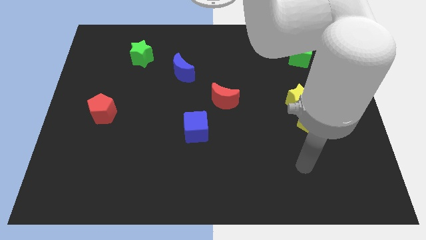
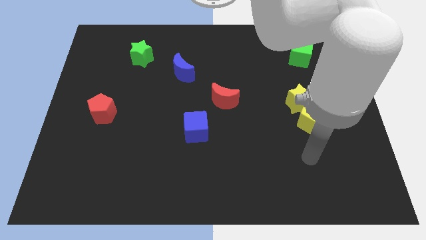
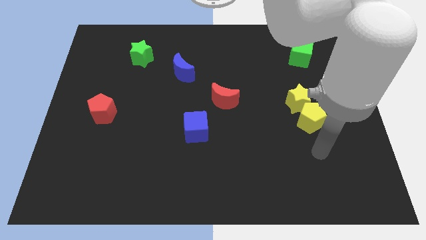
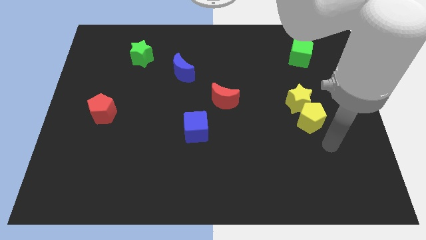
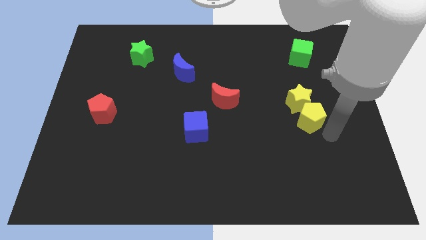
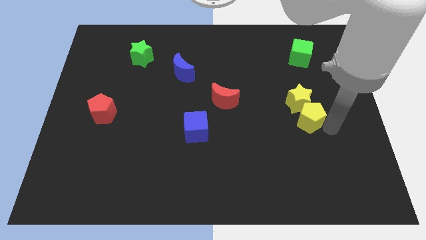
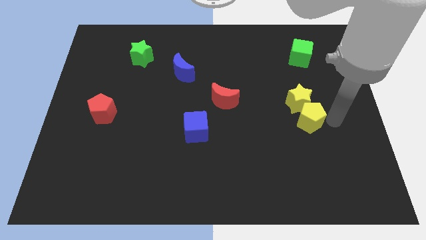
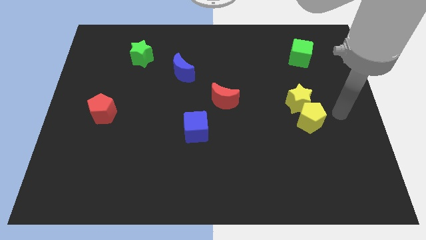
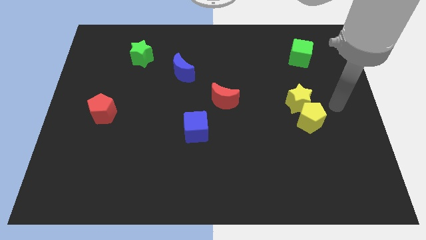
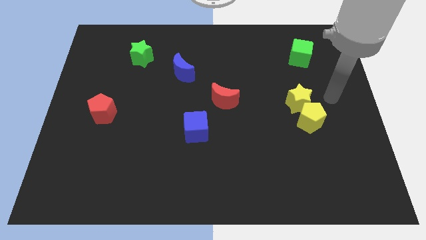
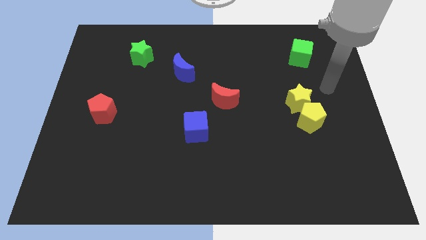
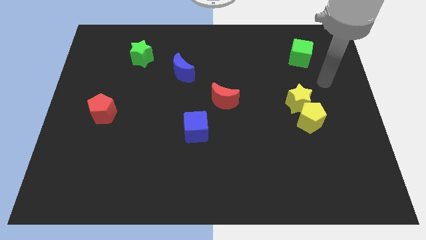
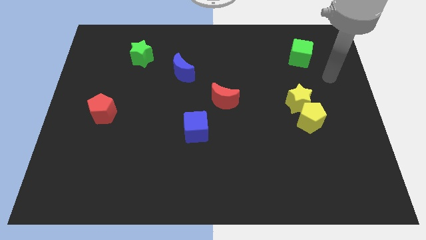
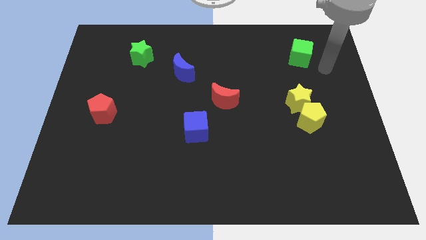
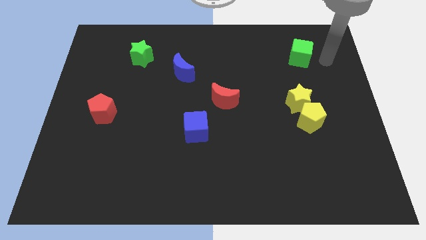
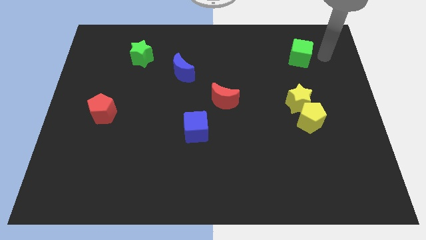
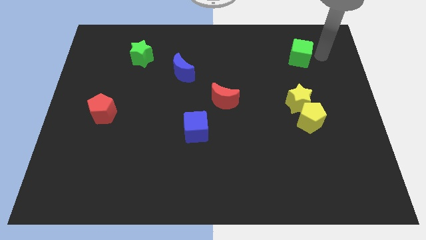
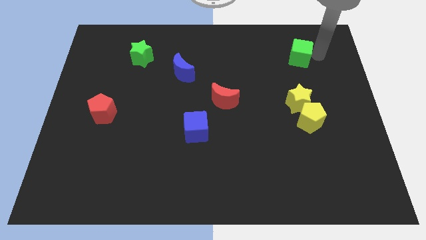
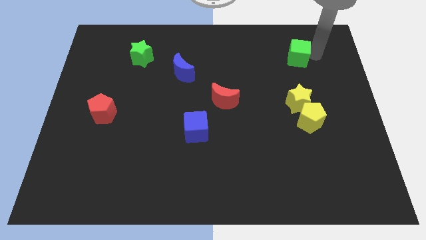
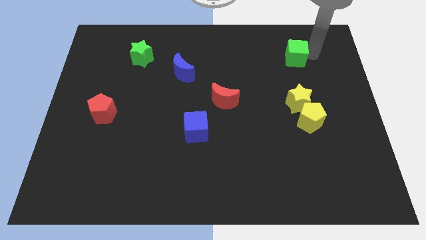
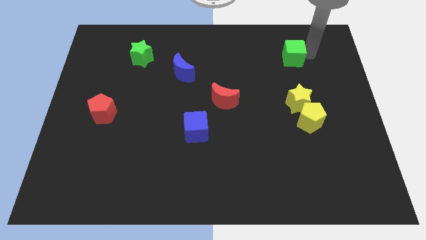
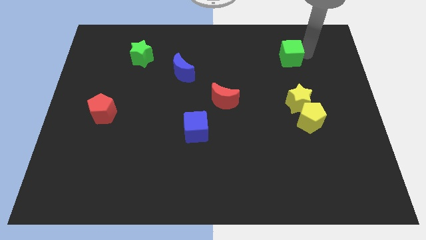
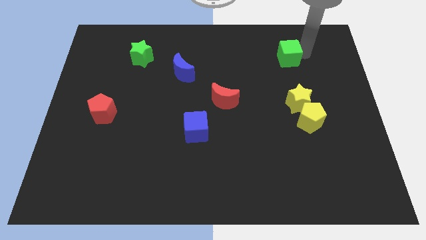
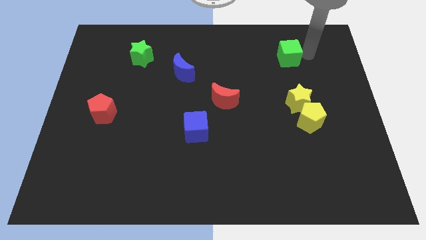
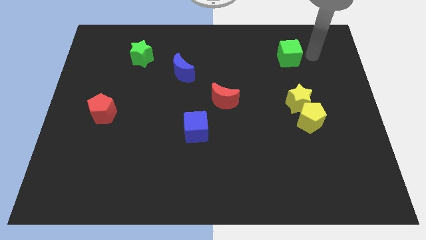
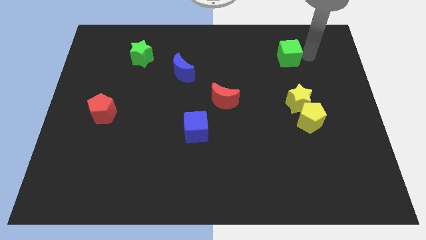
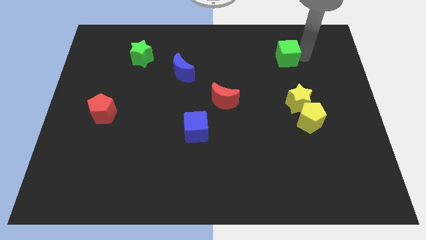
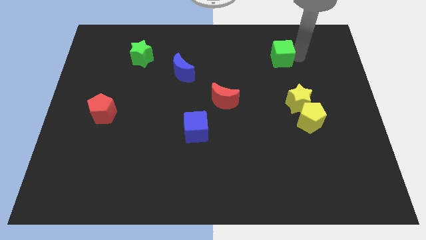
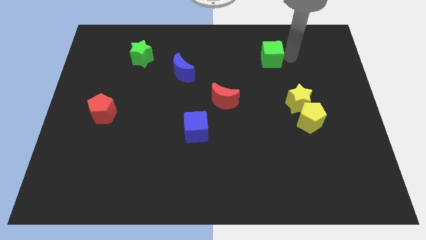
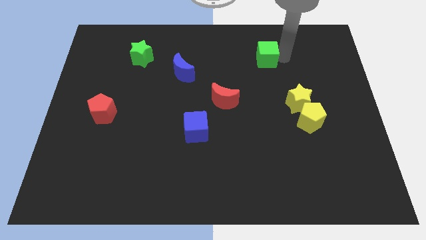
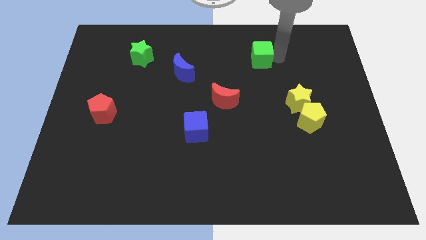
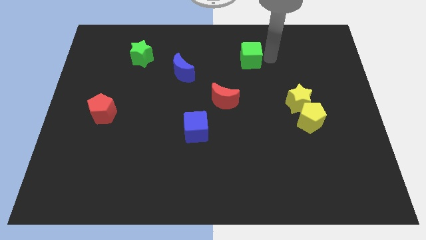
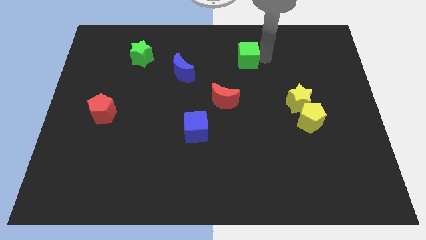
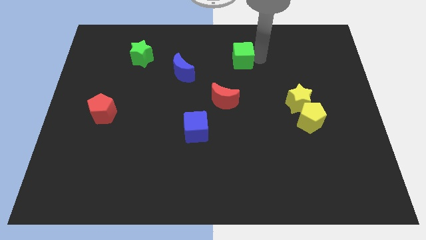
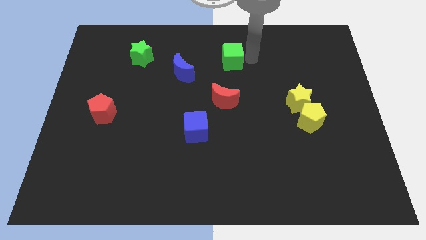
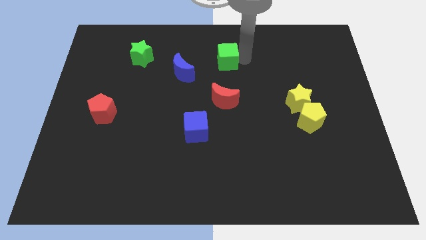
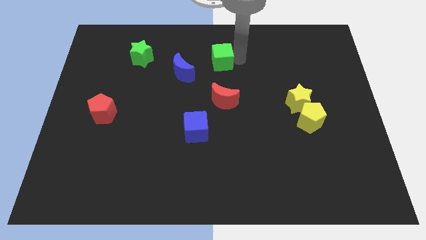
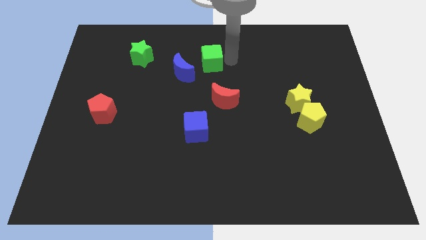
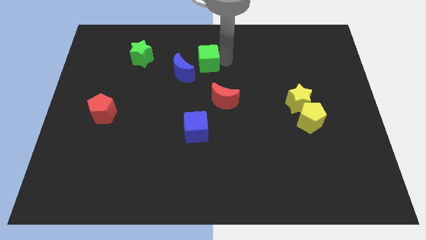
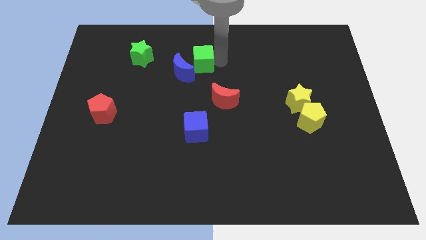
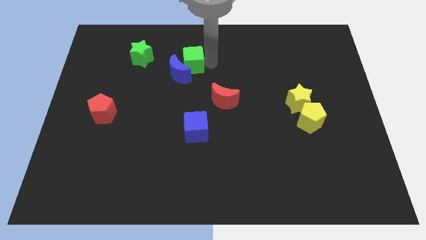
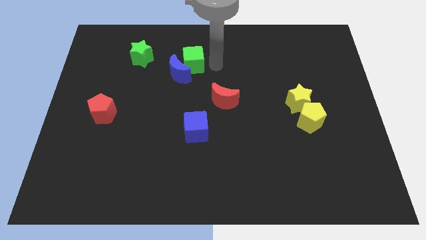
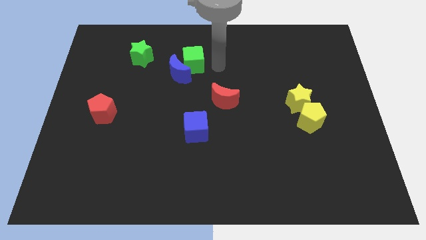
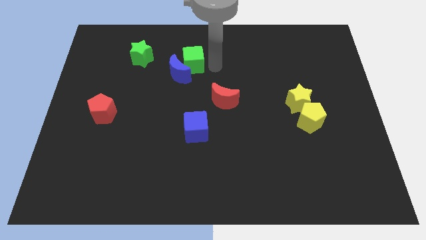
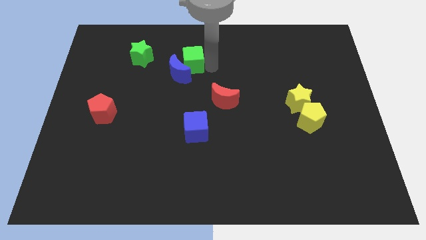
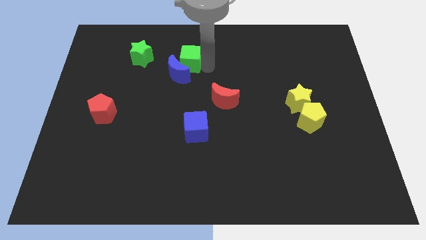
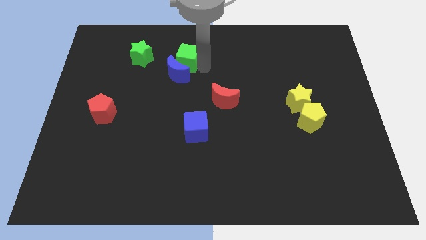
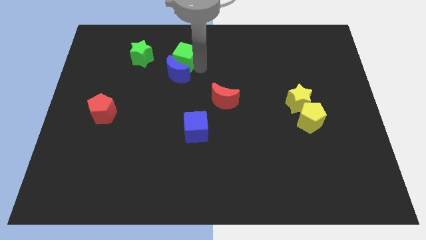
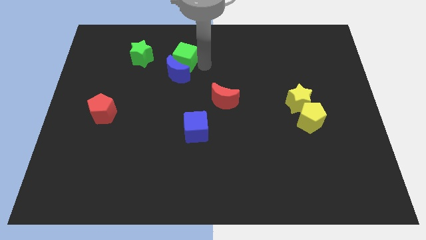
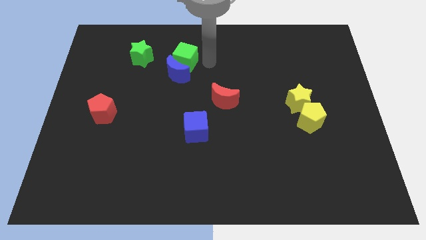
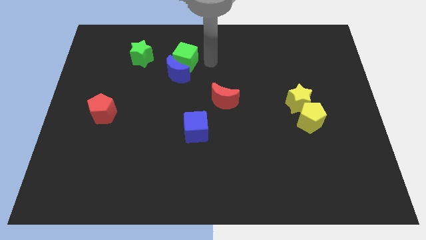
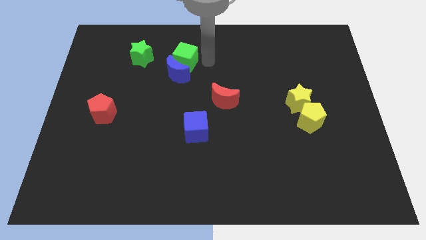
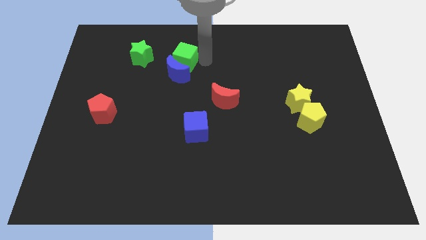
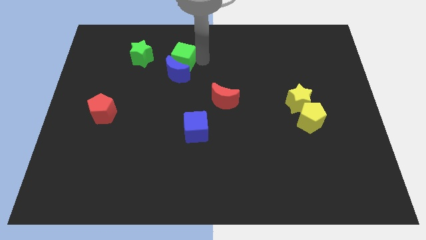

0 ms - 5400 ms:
move the green cube to the top left of the blue moon

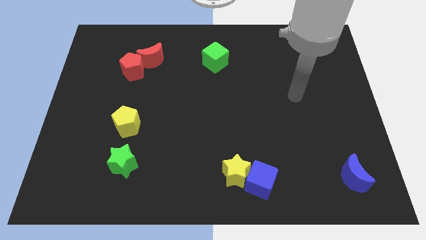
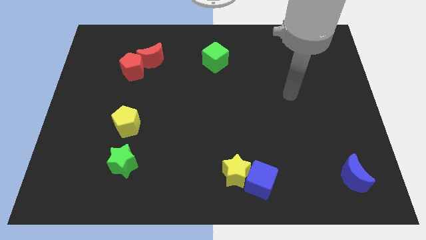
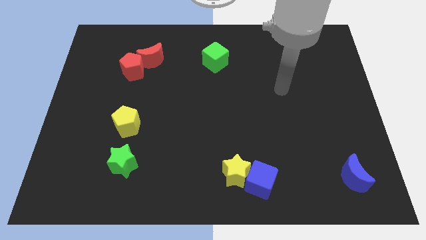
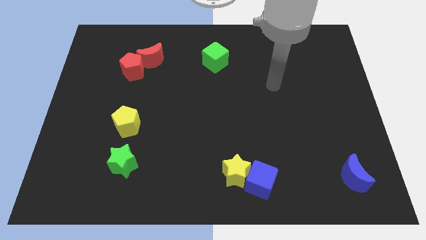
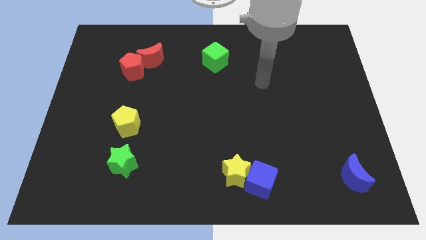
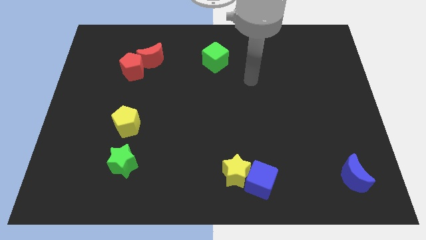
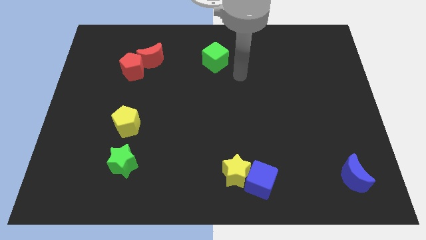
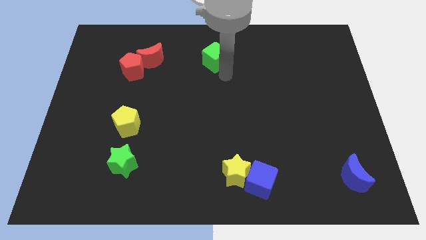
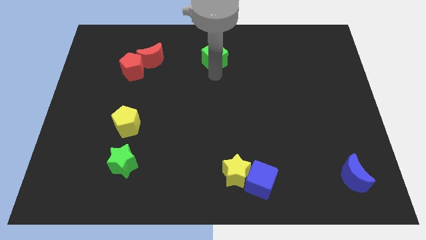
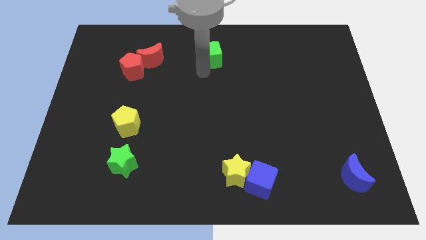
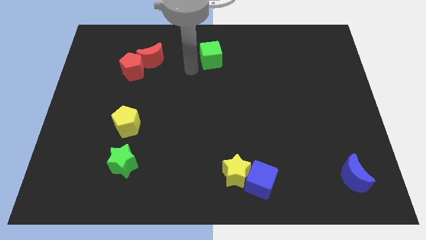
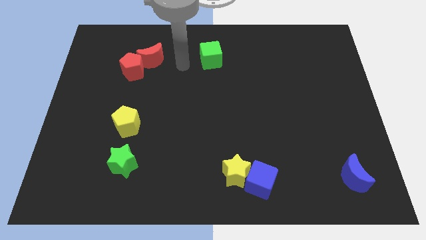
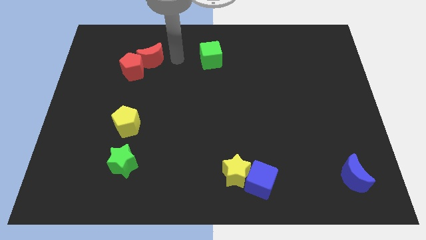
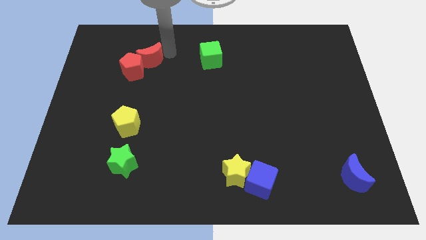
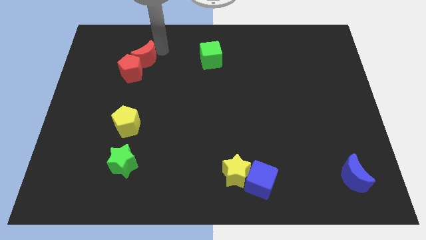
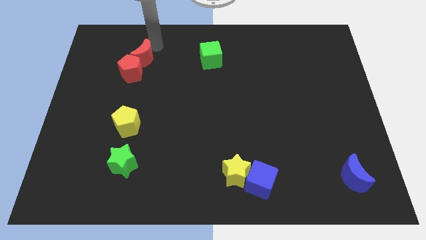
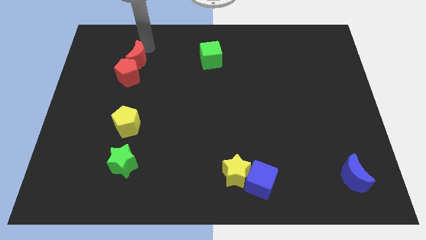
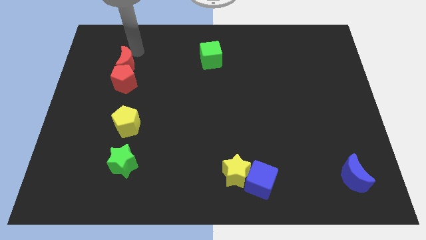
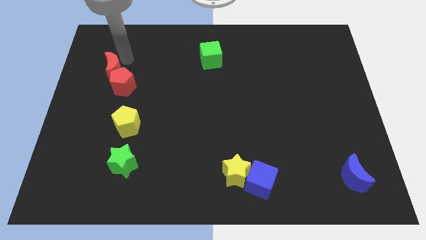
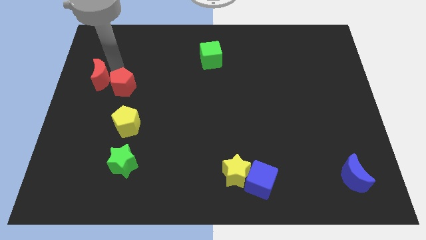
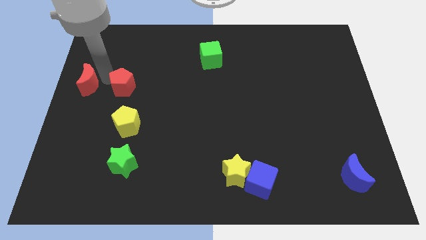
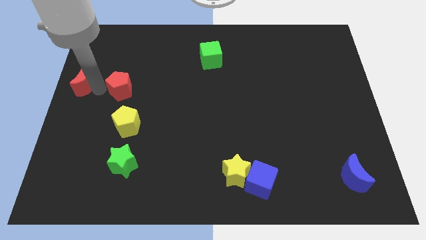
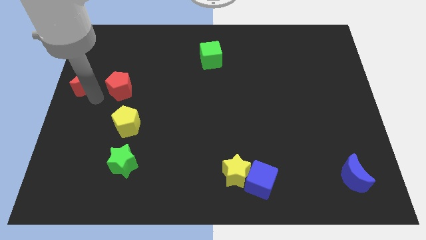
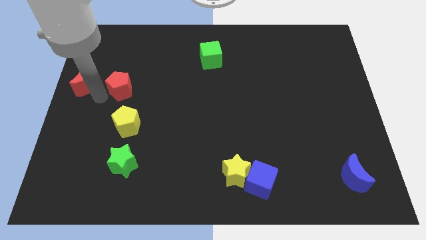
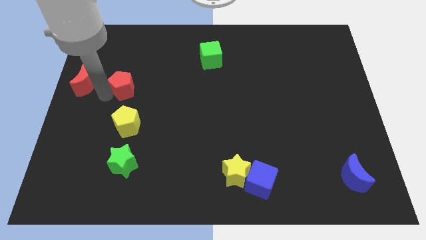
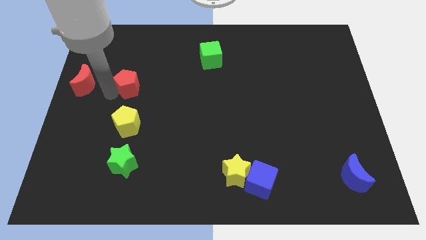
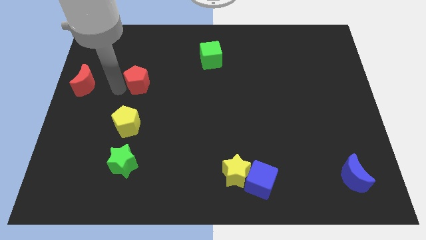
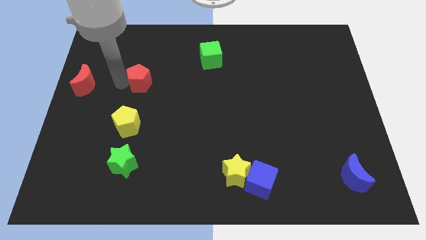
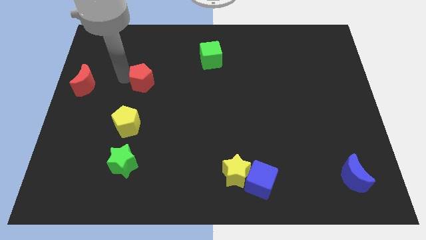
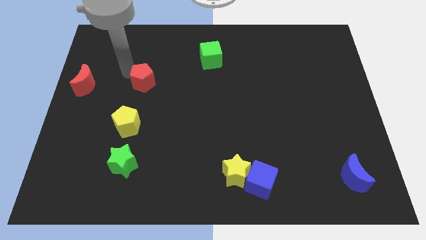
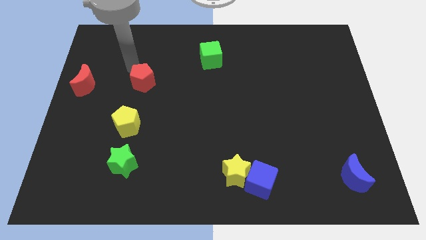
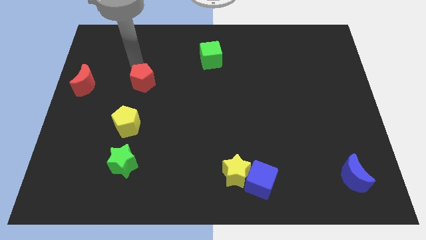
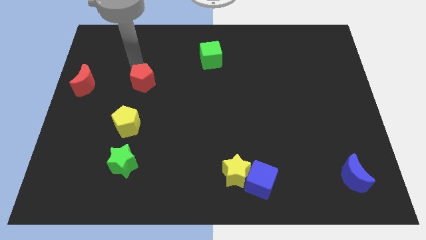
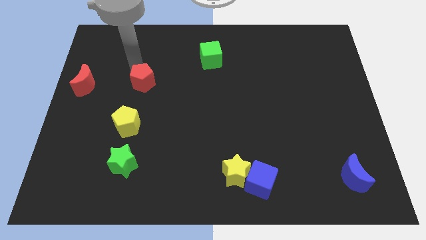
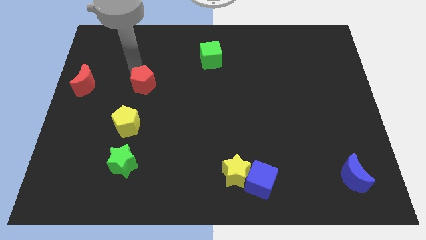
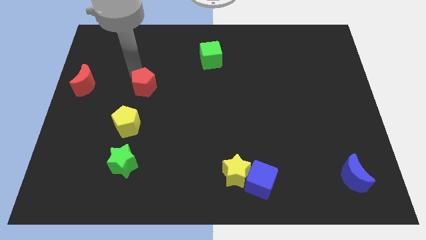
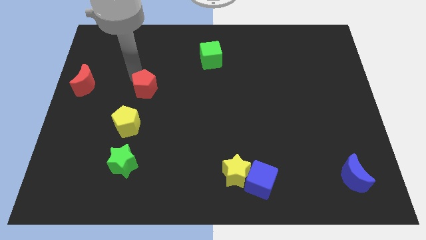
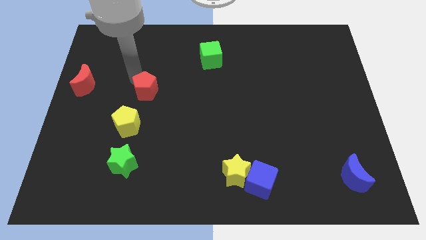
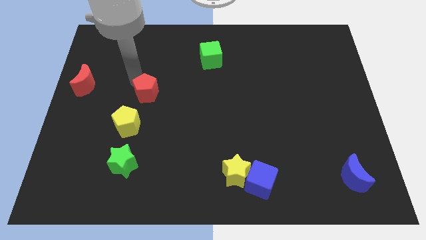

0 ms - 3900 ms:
push the red pentagon to the top right of the yellow pentagon
